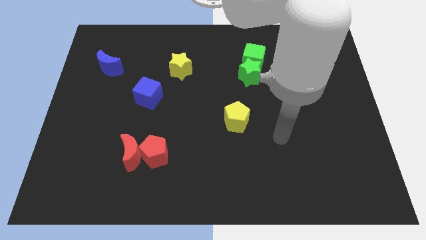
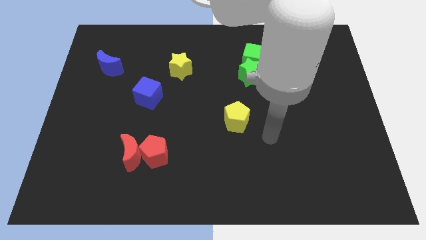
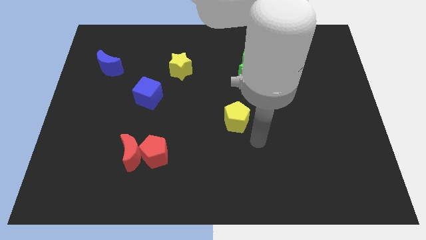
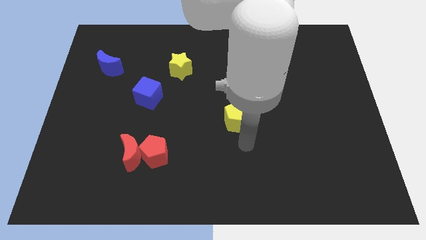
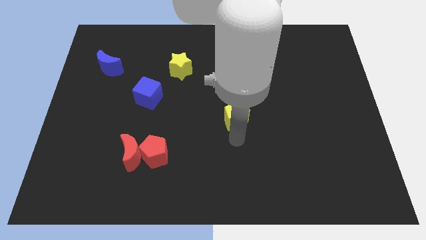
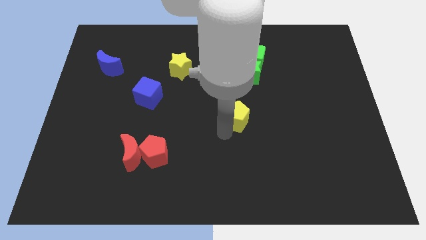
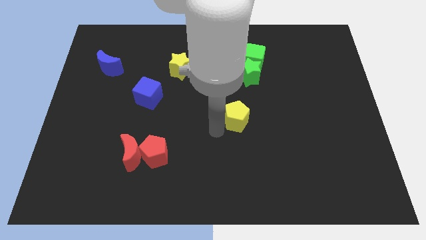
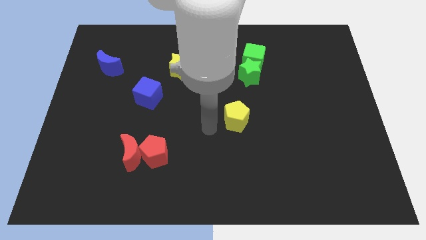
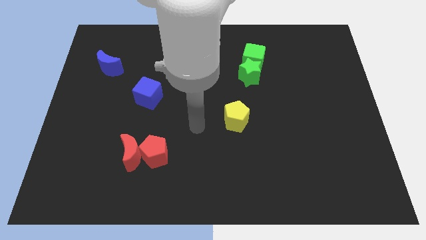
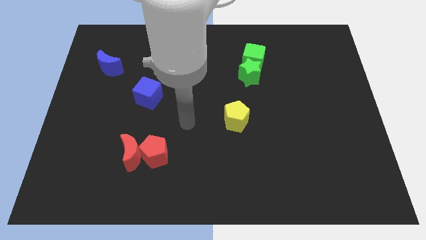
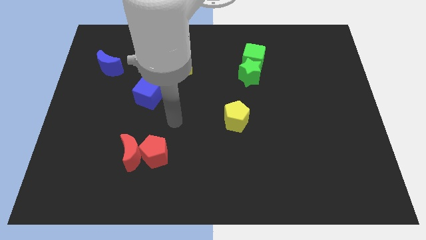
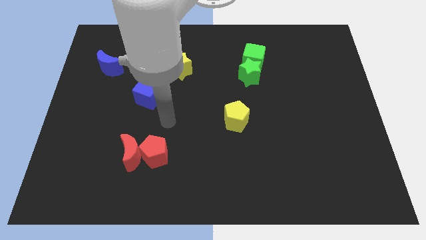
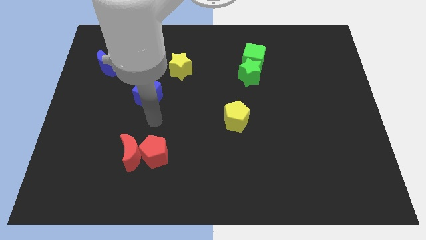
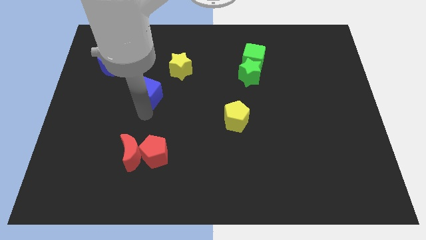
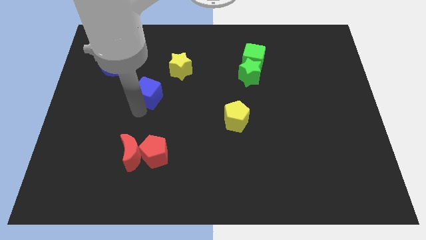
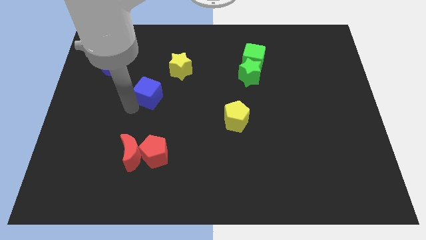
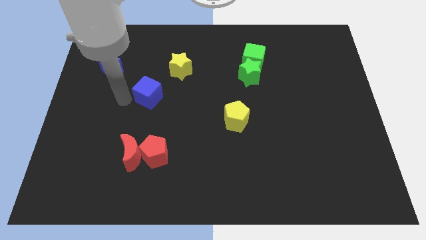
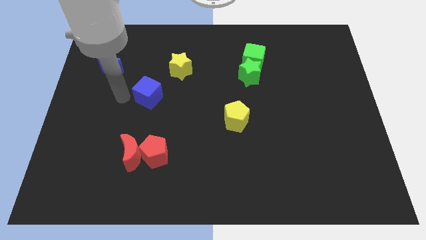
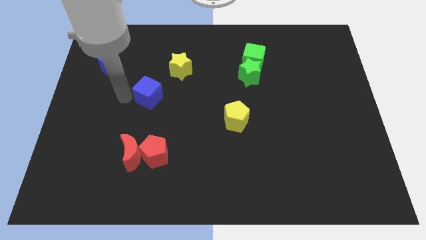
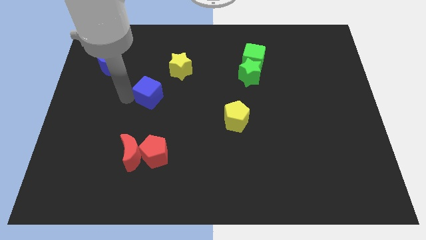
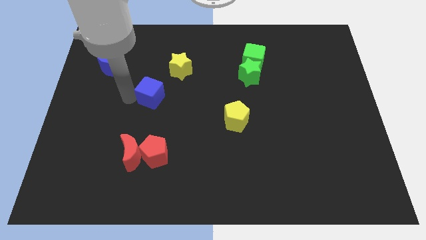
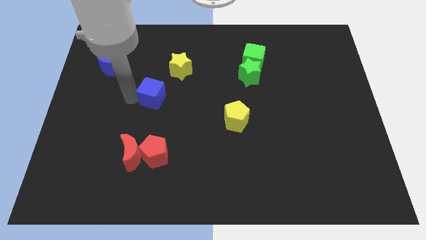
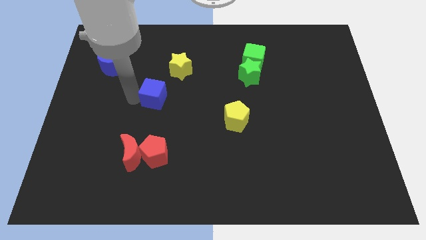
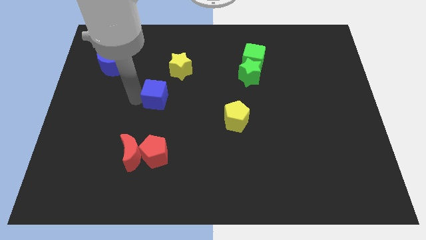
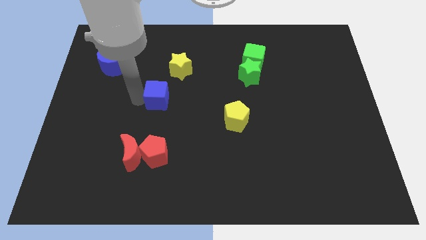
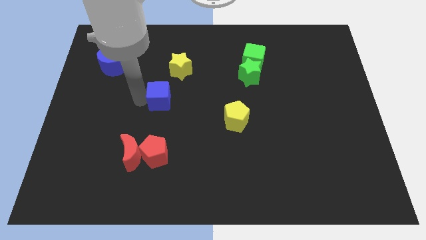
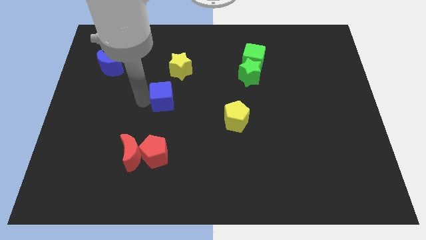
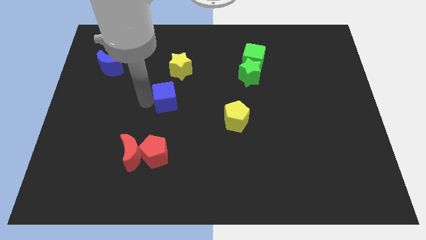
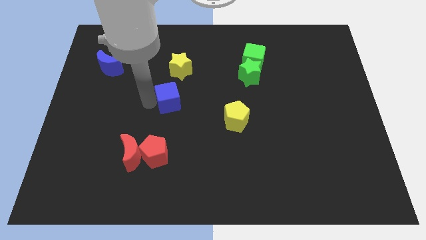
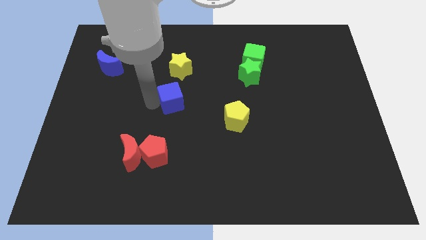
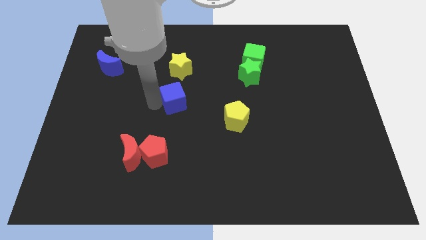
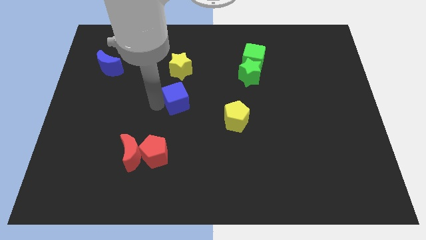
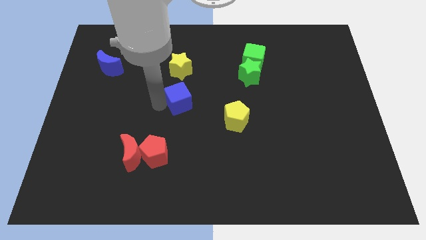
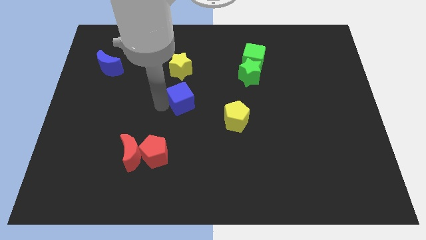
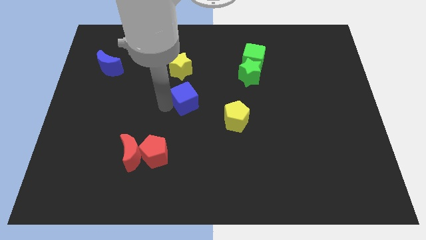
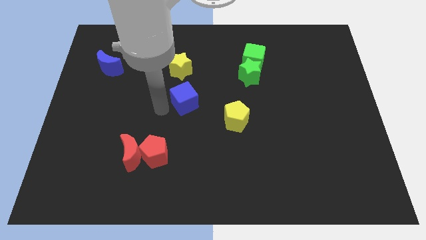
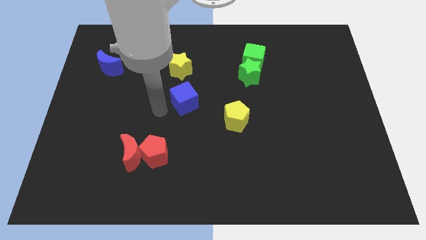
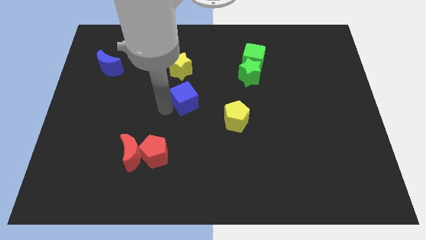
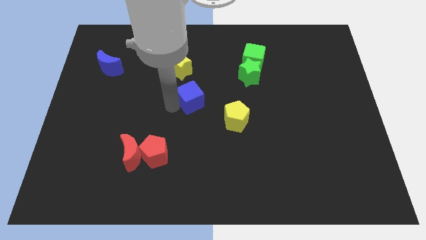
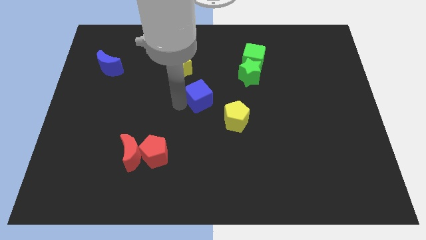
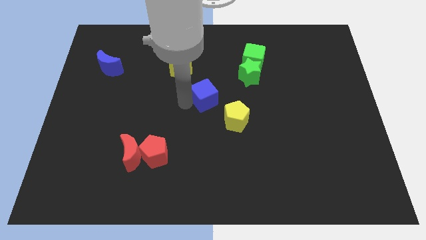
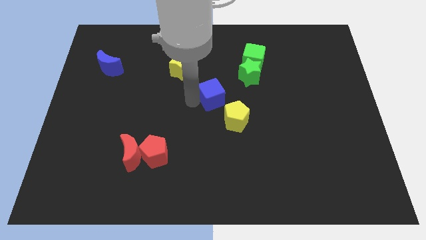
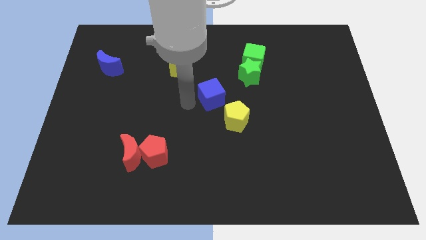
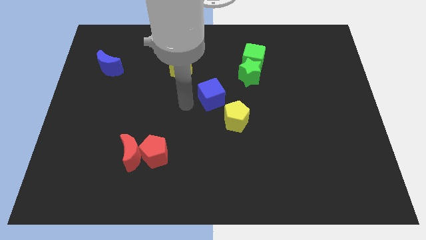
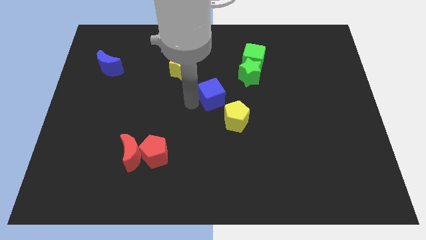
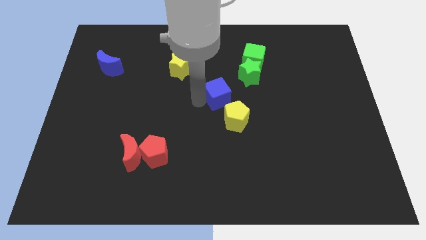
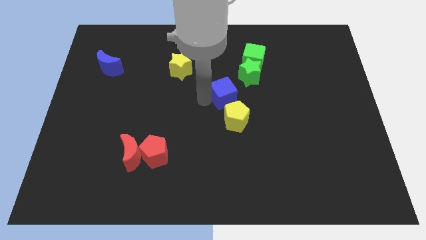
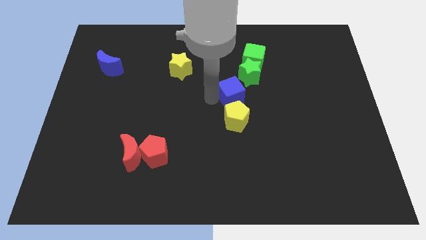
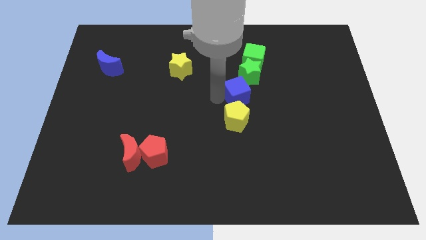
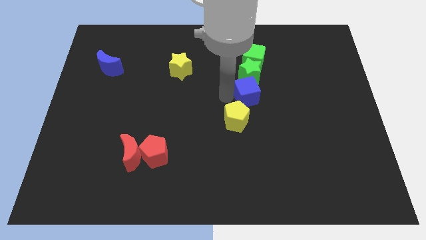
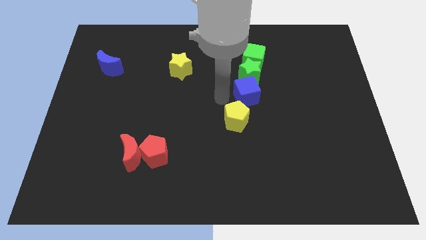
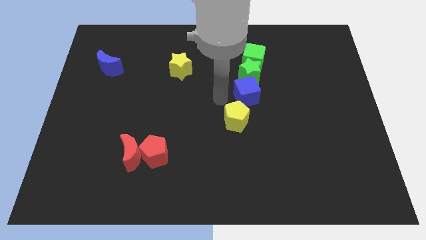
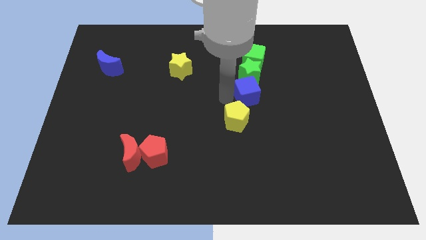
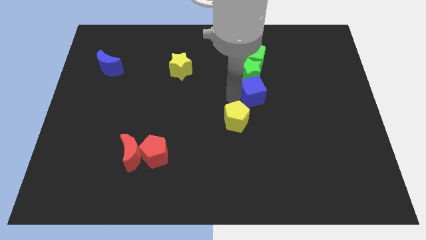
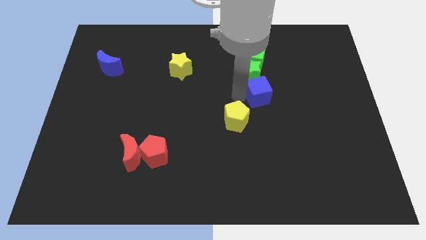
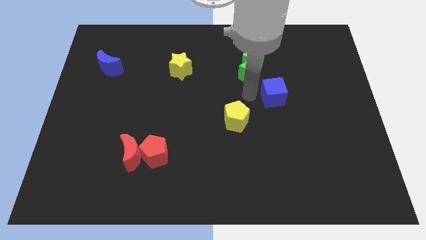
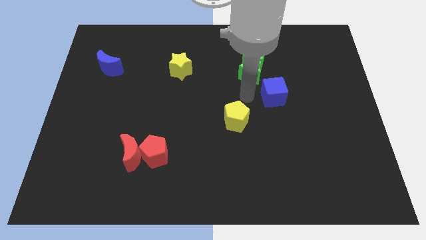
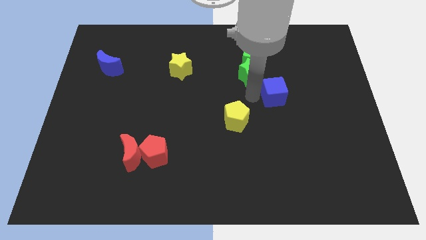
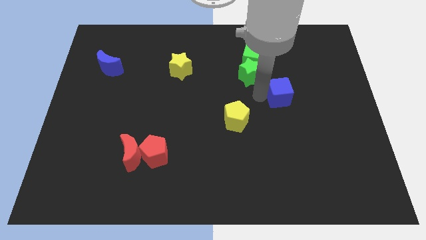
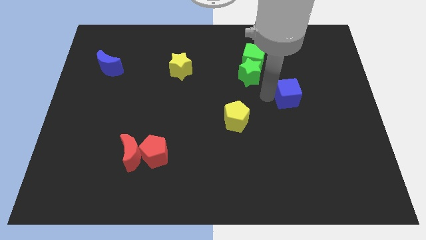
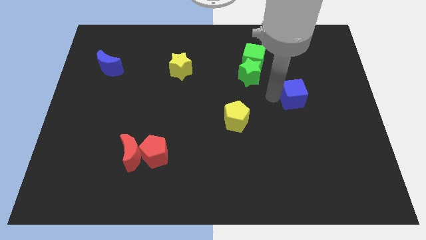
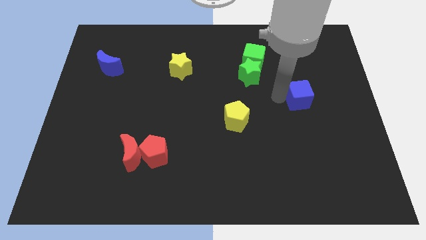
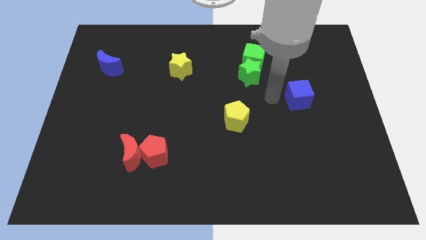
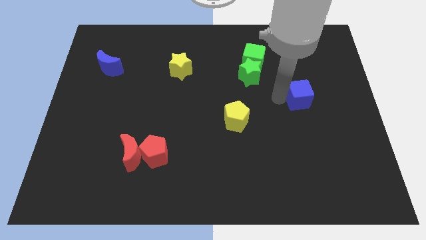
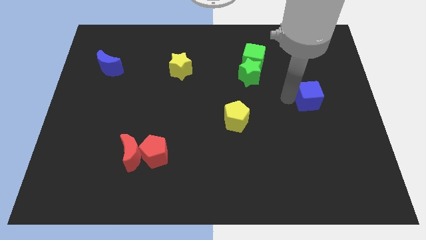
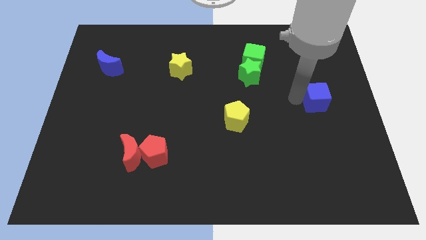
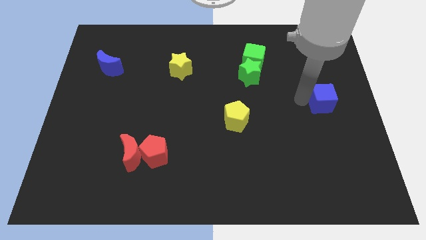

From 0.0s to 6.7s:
move the blue cube to the right side of the board
